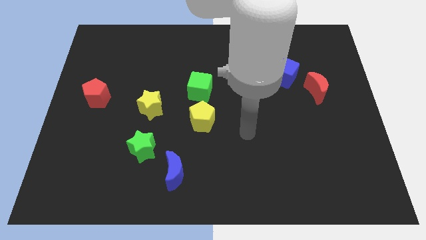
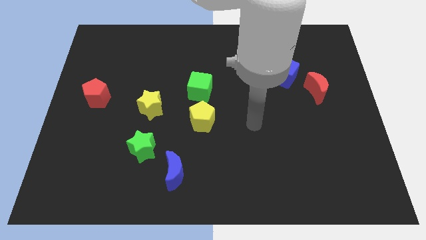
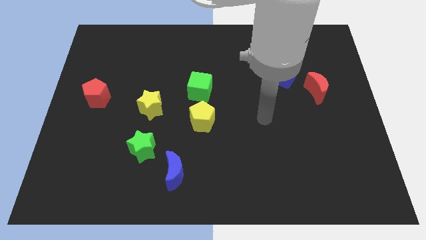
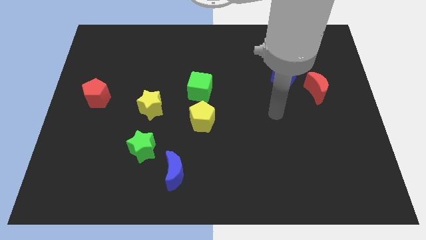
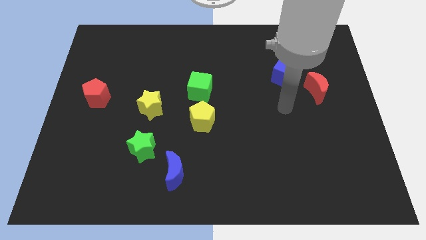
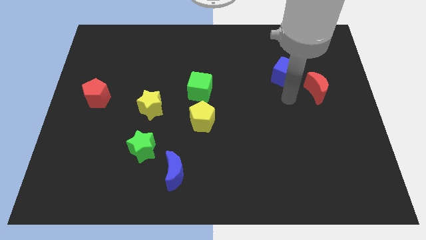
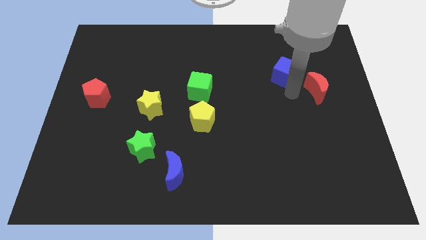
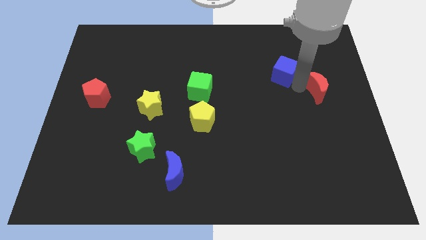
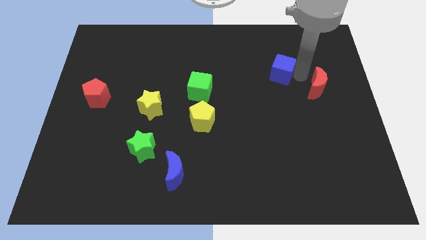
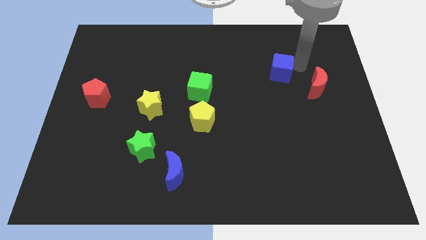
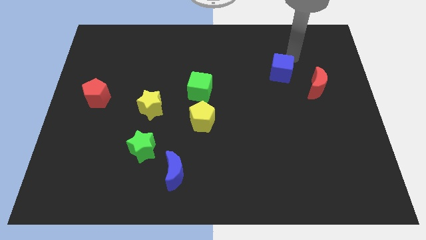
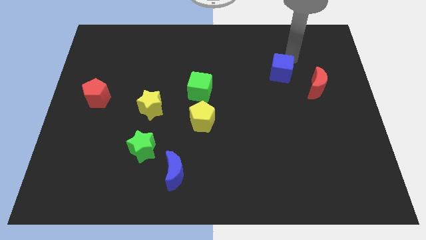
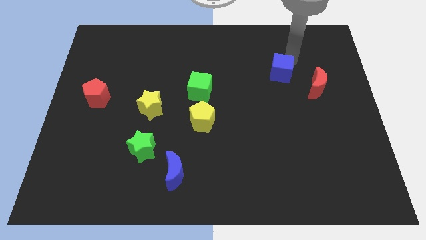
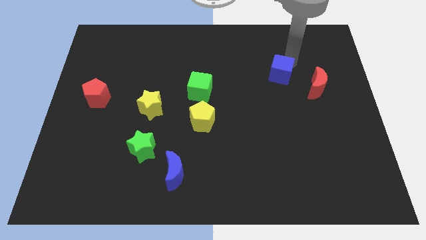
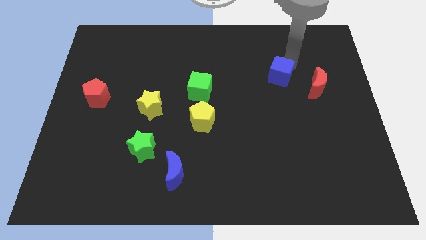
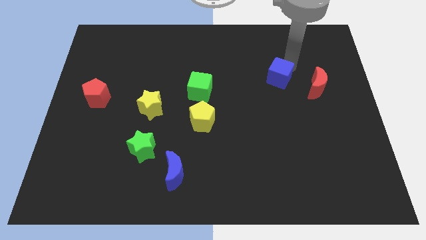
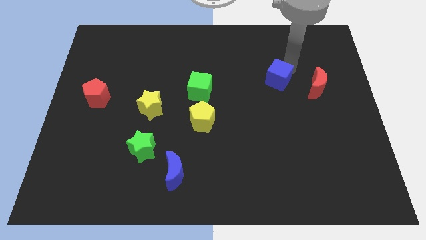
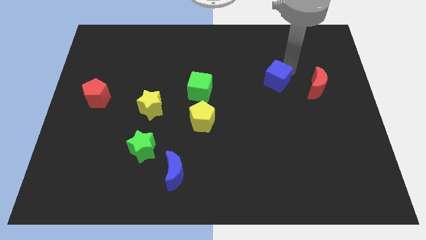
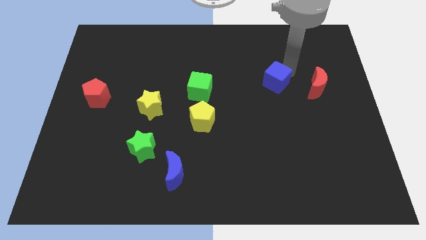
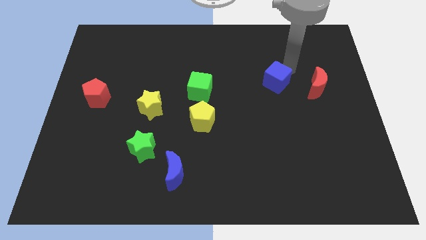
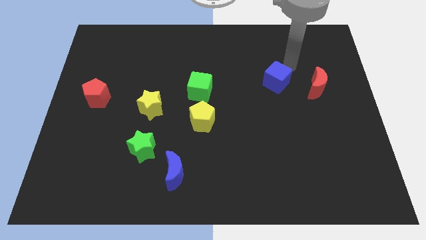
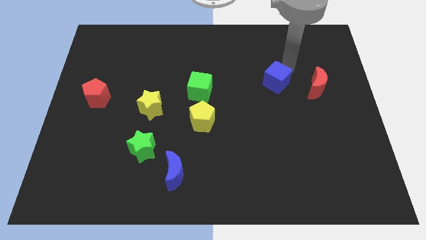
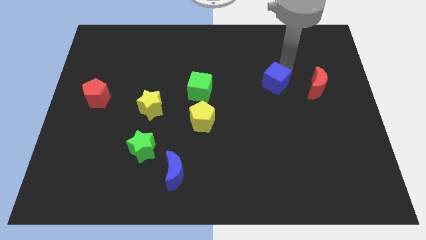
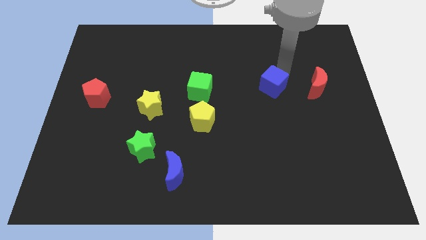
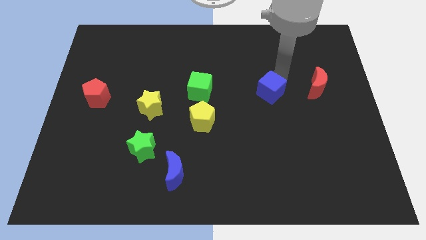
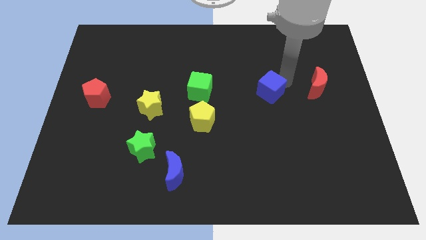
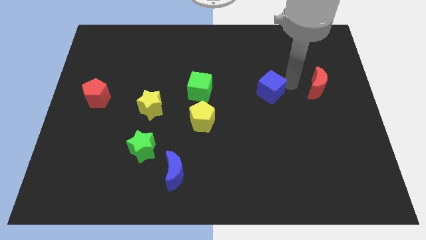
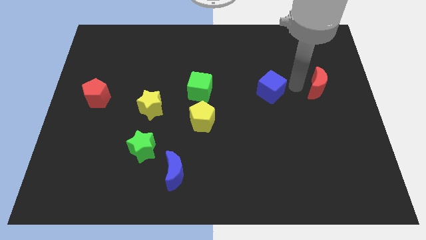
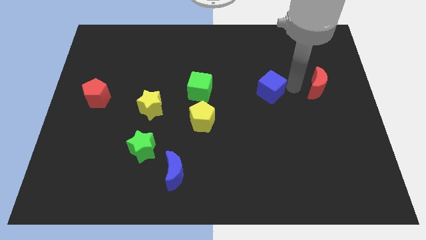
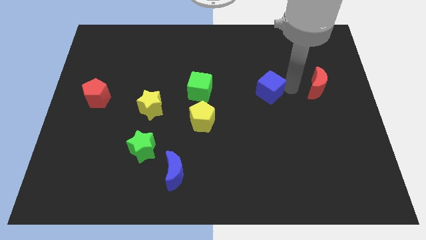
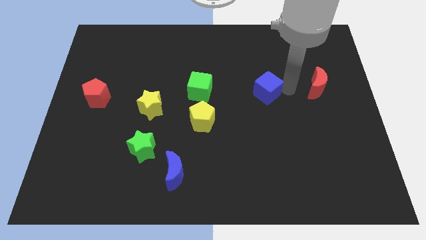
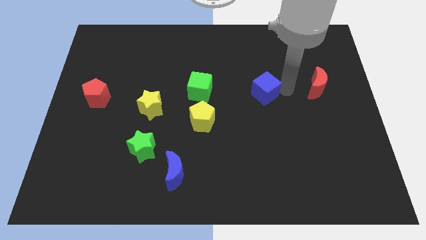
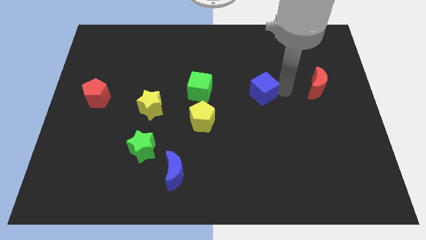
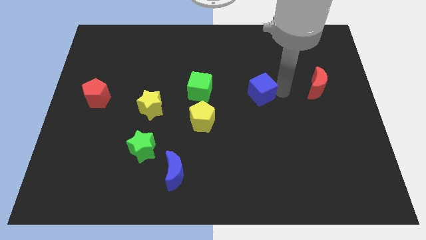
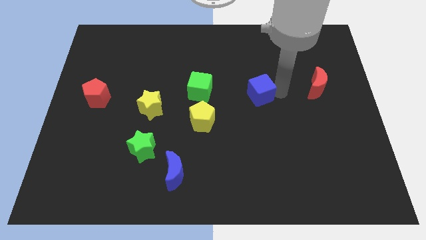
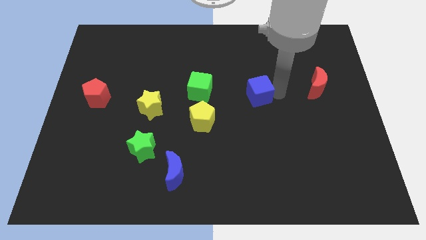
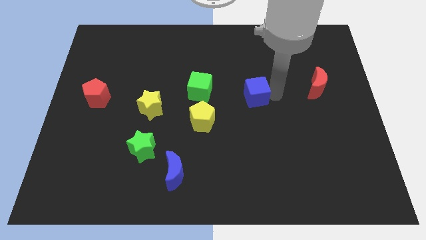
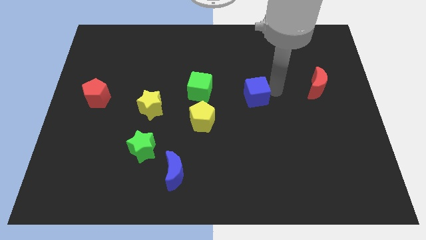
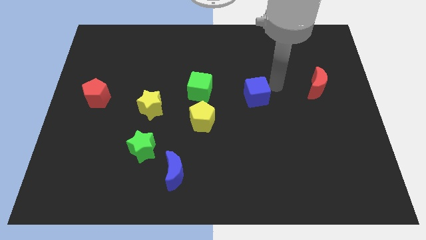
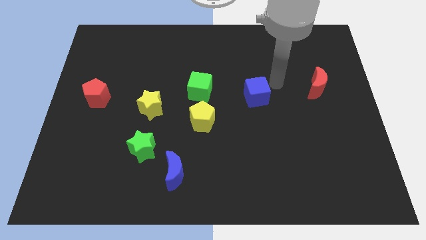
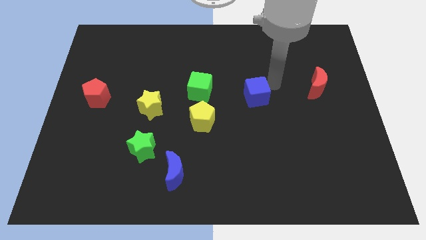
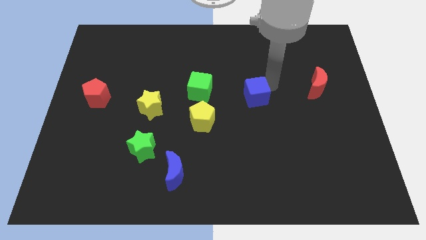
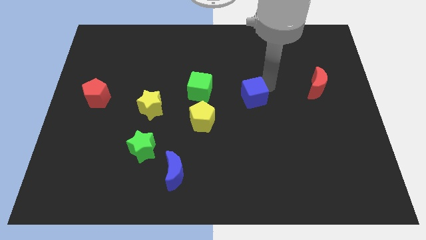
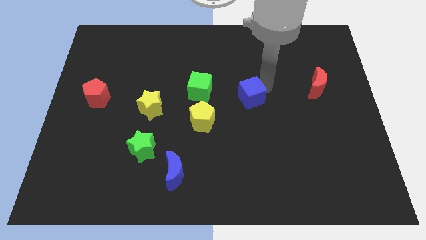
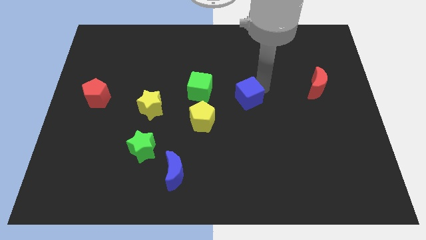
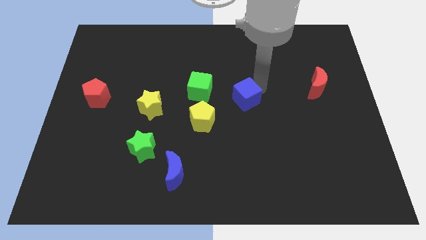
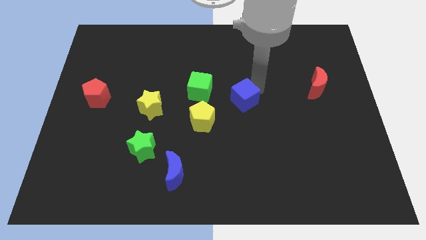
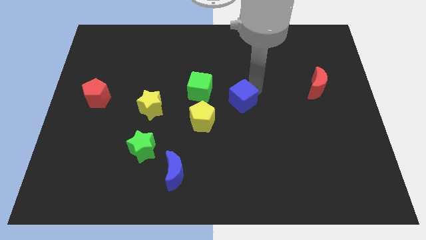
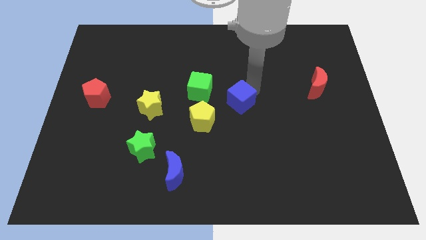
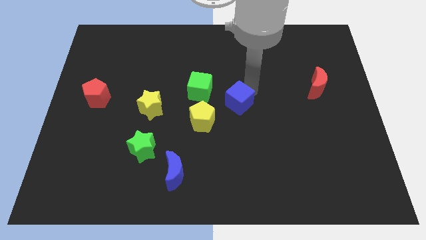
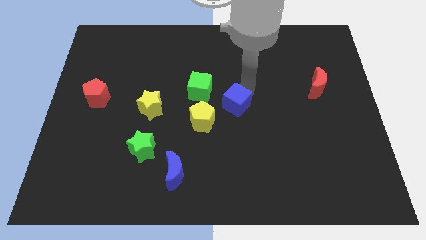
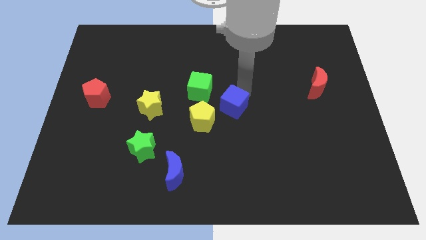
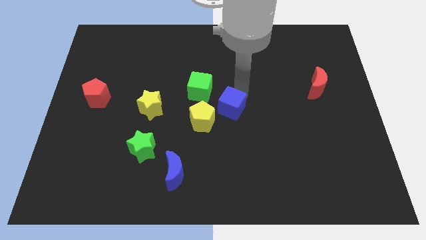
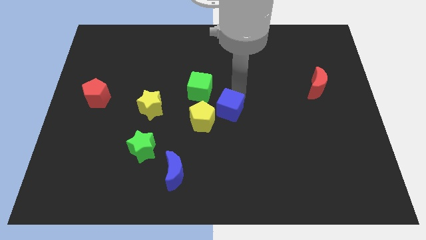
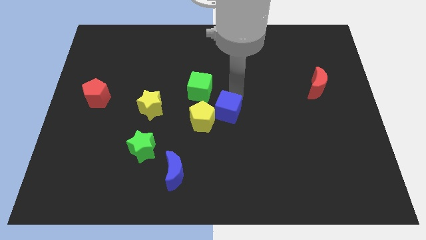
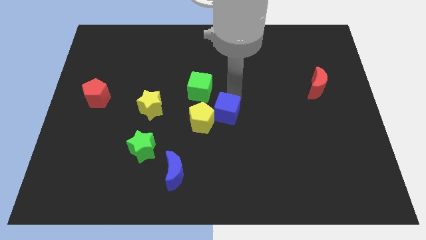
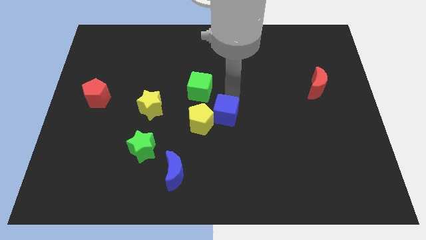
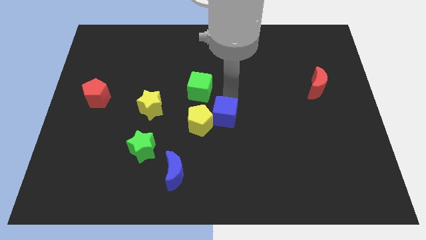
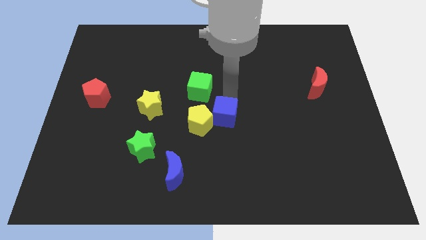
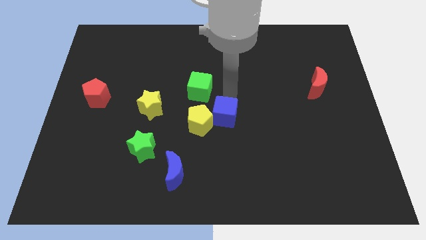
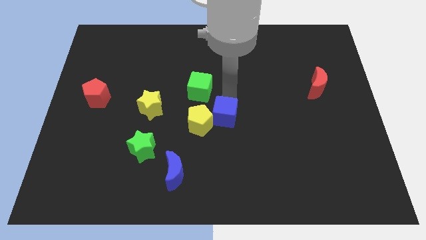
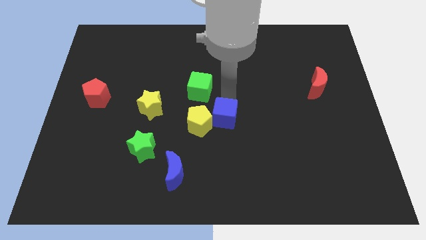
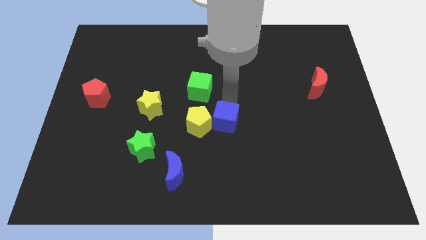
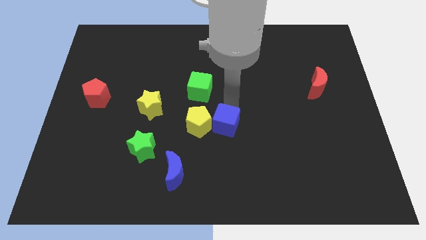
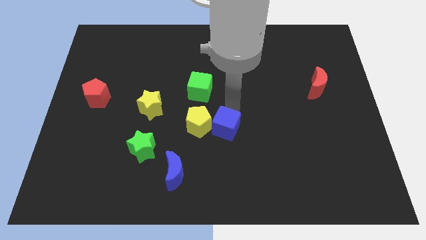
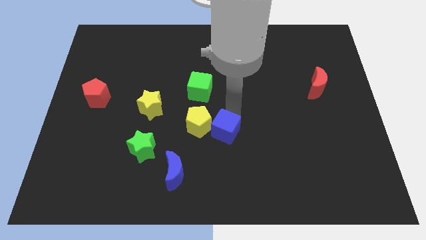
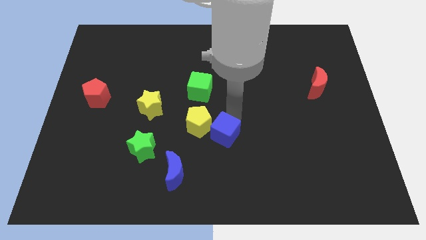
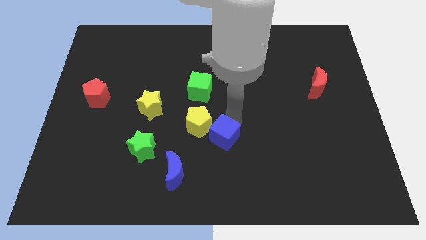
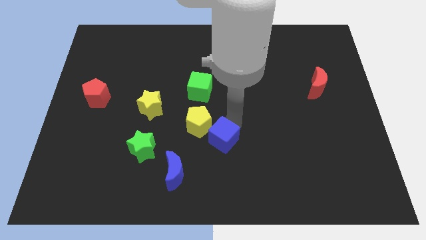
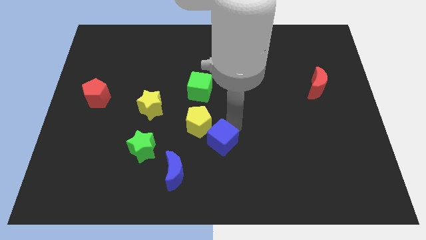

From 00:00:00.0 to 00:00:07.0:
put the blue cube to the top right of the blue moon

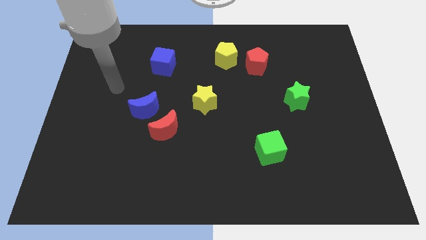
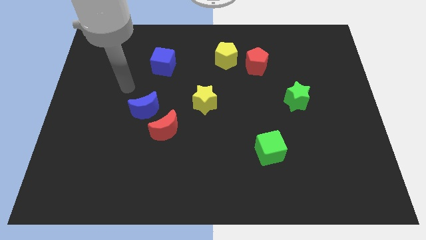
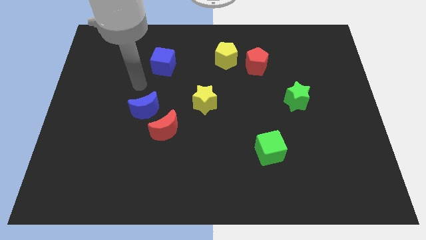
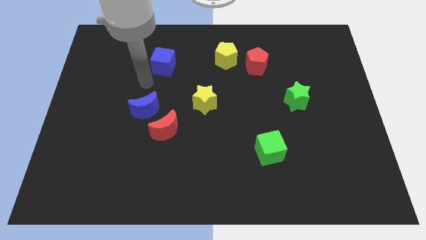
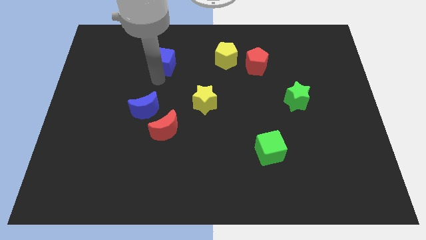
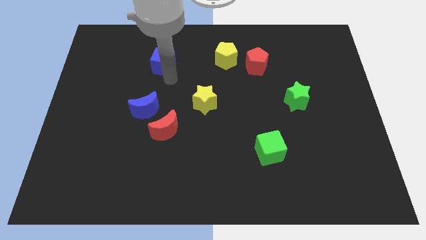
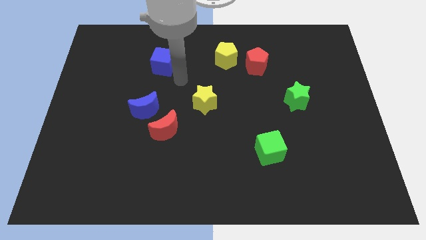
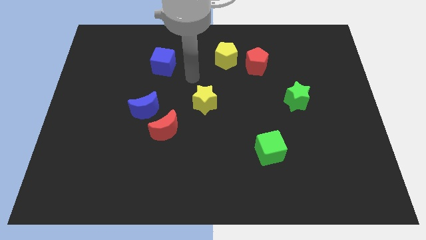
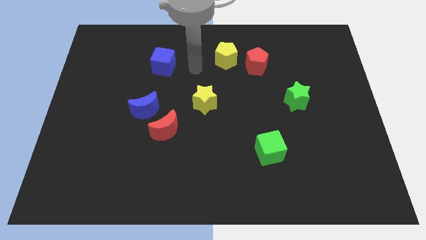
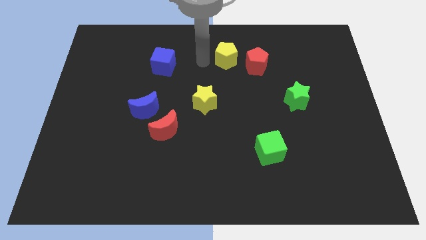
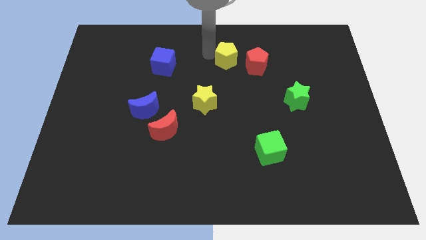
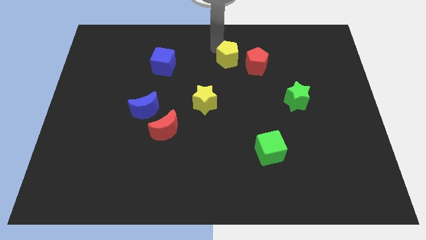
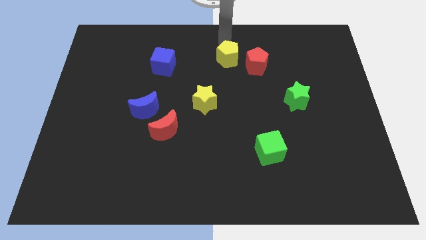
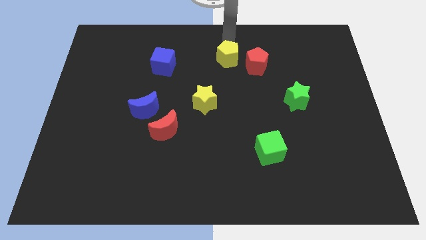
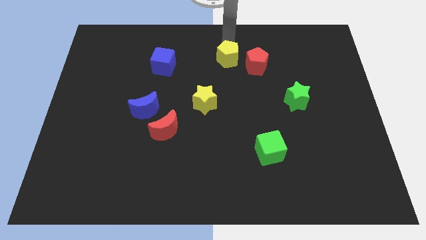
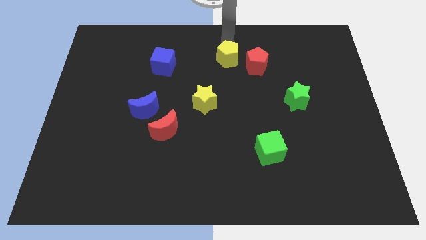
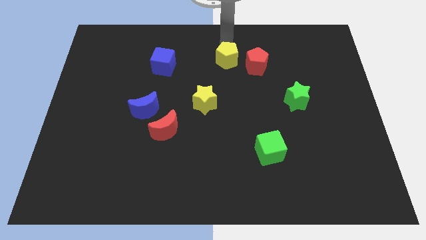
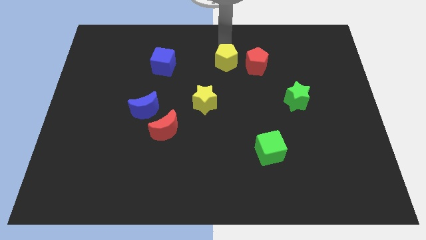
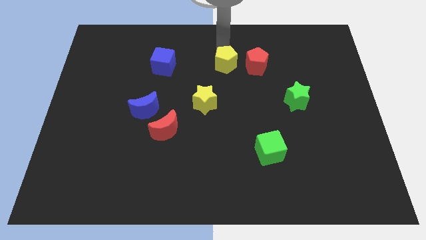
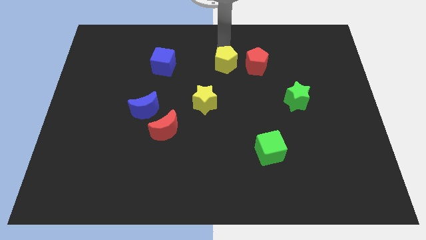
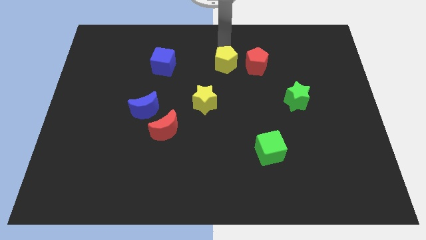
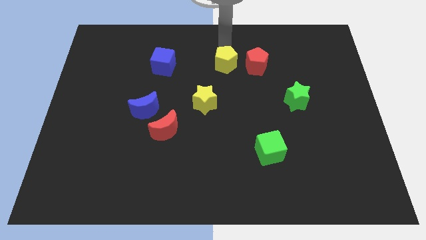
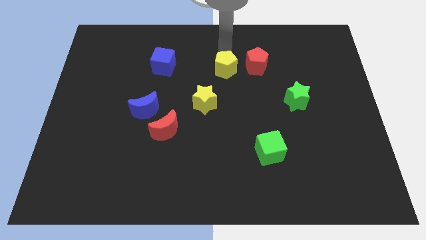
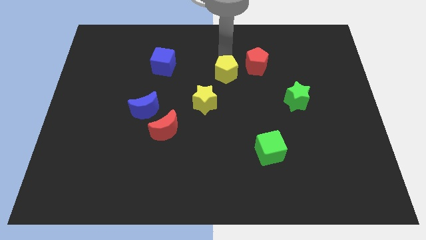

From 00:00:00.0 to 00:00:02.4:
put the yellow pentagon to the top right side of the yellow star
